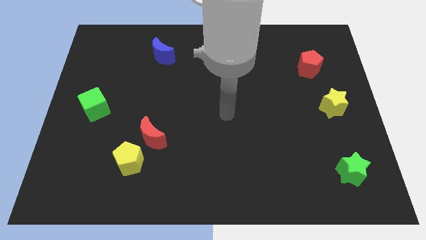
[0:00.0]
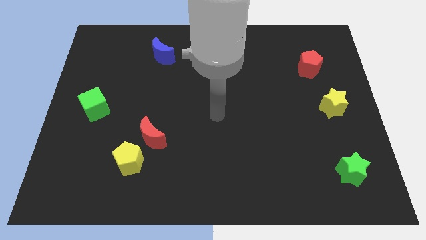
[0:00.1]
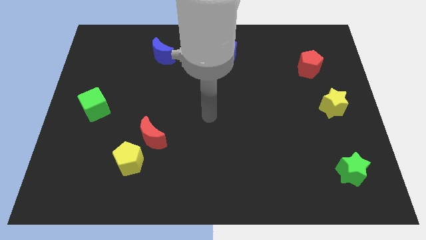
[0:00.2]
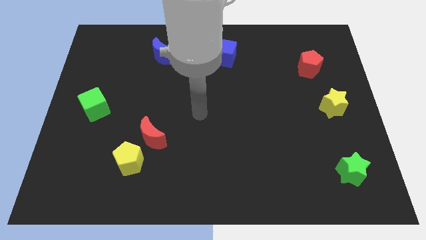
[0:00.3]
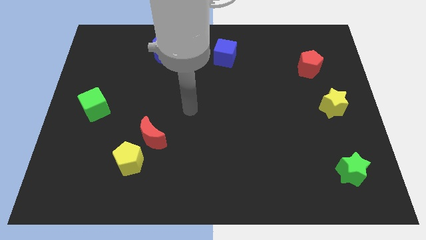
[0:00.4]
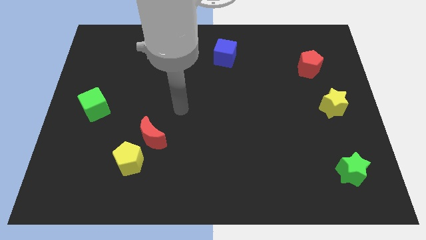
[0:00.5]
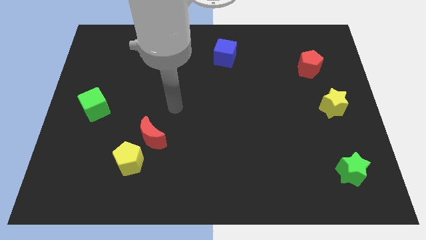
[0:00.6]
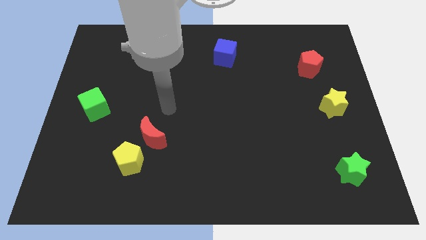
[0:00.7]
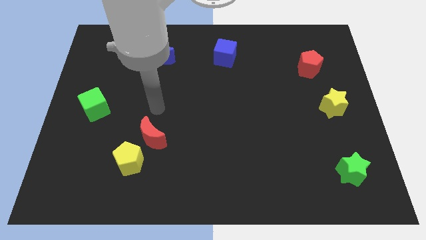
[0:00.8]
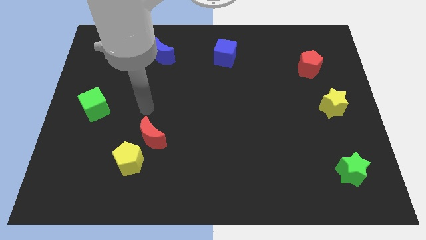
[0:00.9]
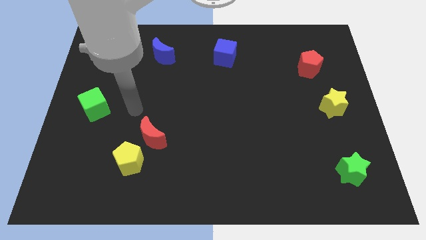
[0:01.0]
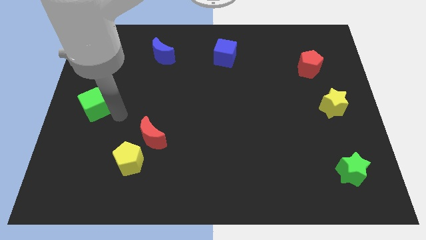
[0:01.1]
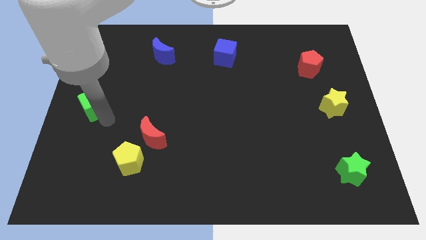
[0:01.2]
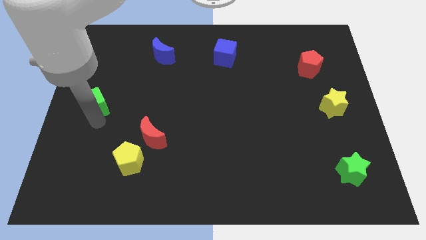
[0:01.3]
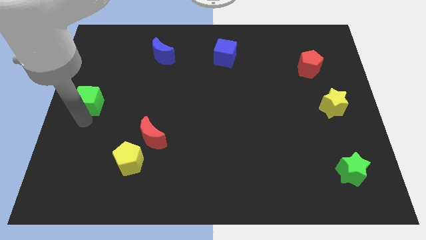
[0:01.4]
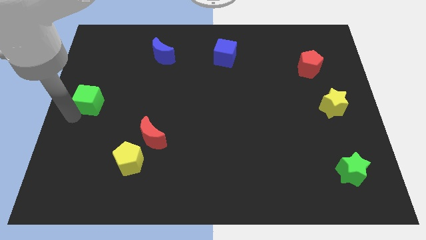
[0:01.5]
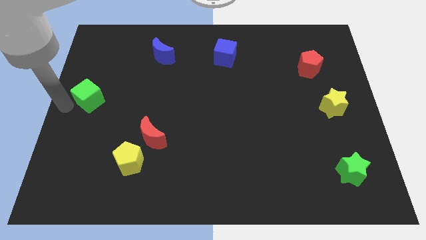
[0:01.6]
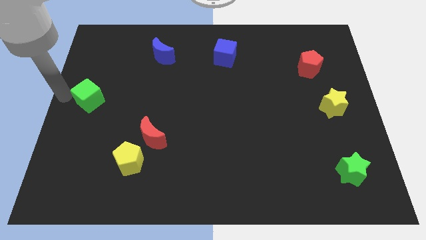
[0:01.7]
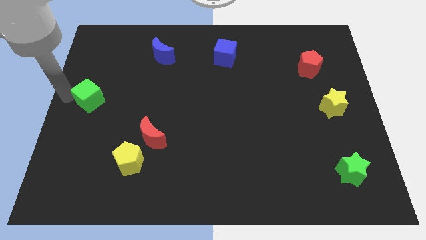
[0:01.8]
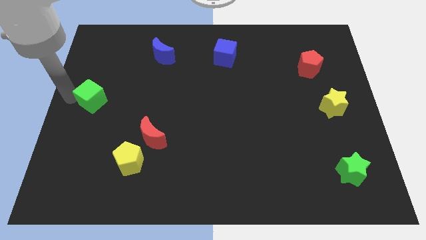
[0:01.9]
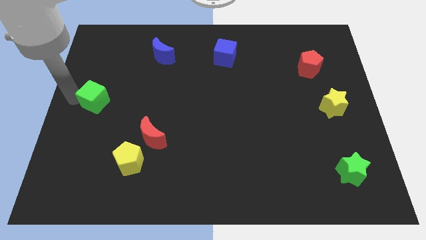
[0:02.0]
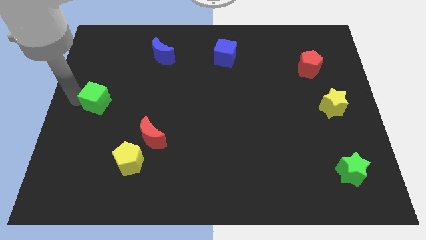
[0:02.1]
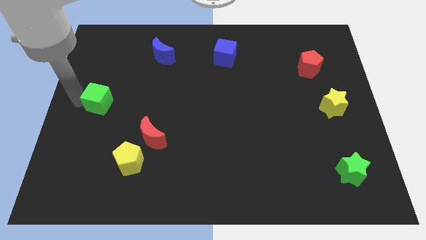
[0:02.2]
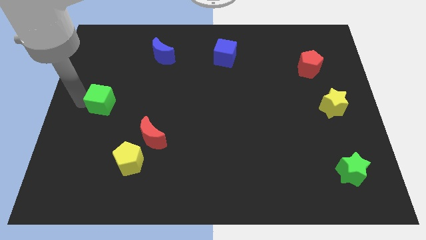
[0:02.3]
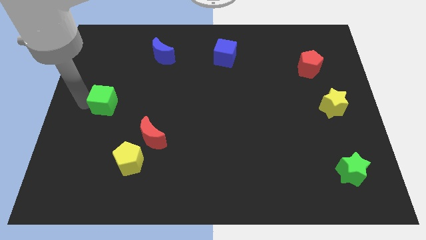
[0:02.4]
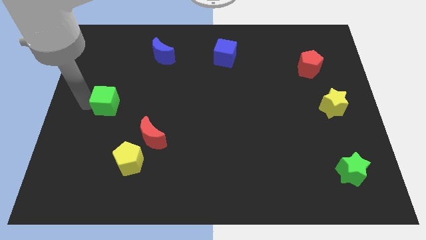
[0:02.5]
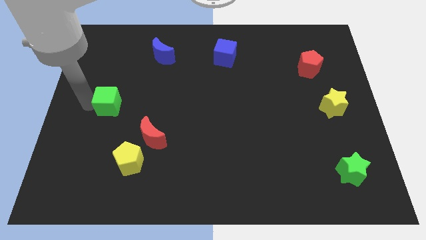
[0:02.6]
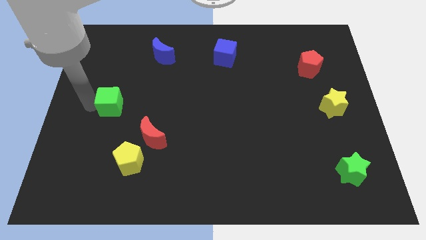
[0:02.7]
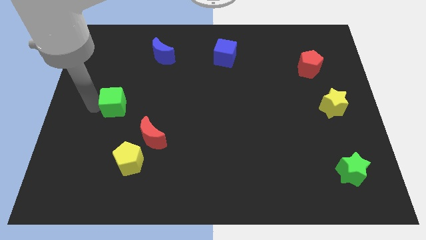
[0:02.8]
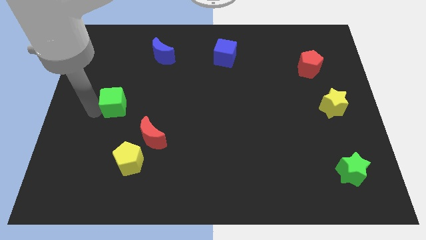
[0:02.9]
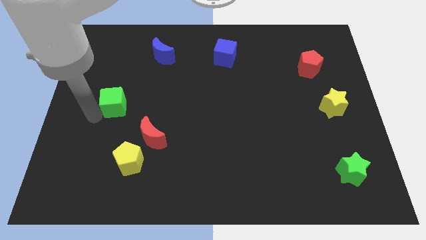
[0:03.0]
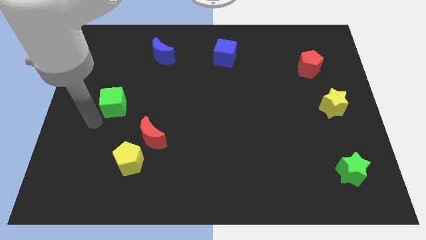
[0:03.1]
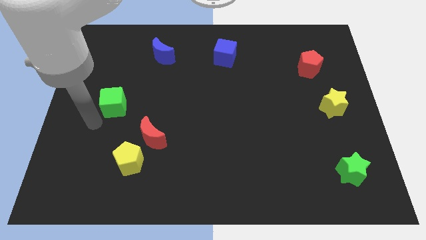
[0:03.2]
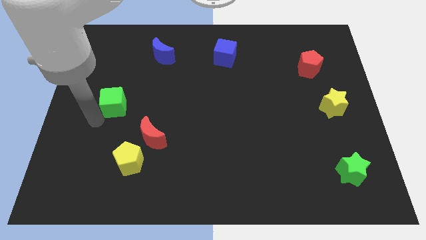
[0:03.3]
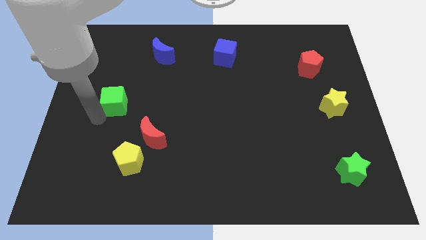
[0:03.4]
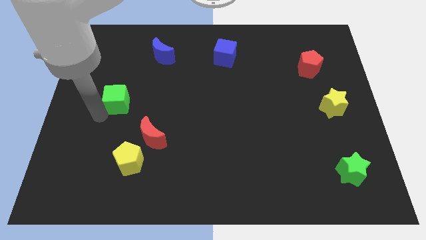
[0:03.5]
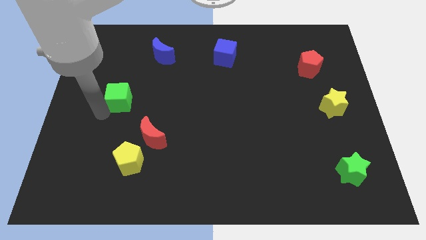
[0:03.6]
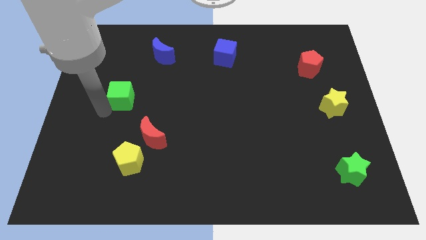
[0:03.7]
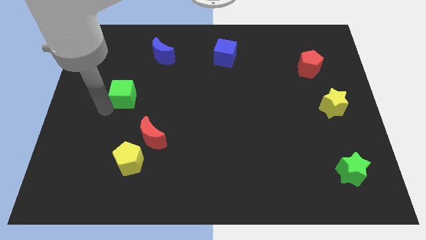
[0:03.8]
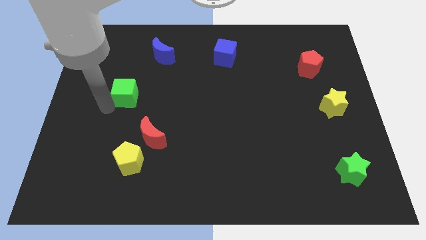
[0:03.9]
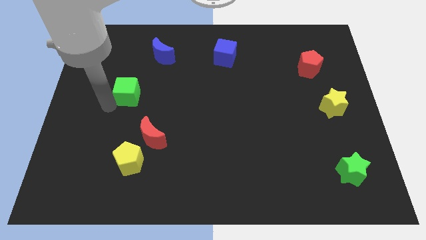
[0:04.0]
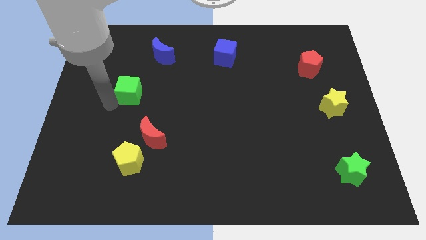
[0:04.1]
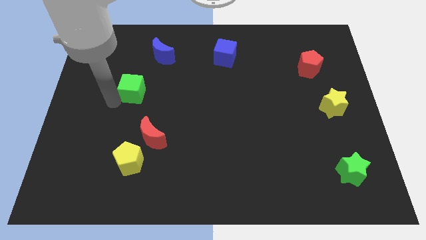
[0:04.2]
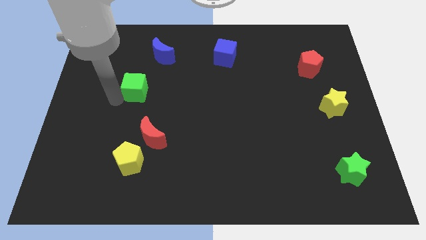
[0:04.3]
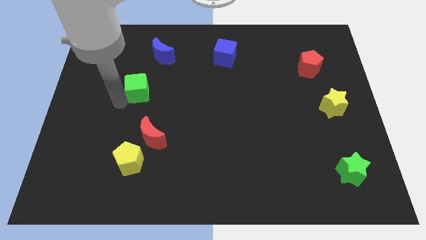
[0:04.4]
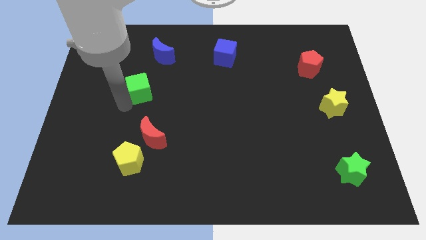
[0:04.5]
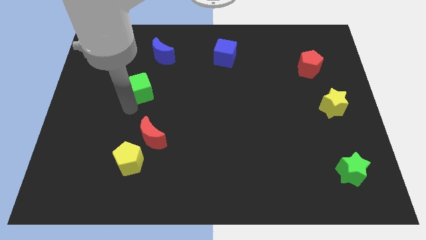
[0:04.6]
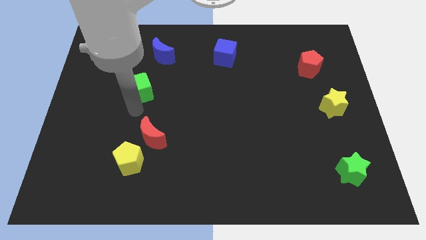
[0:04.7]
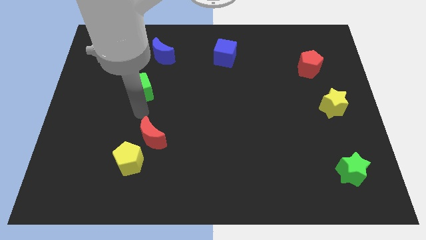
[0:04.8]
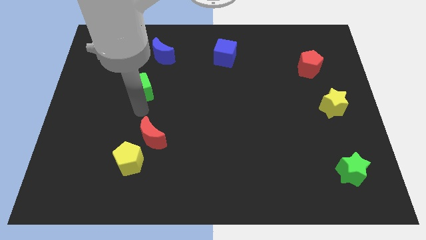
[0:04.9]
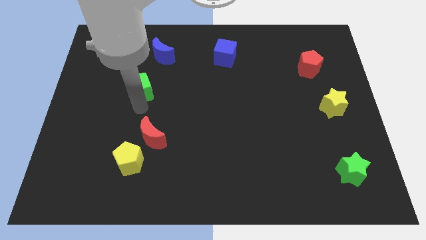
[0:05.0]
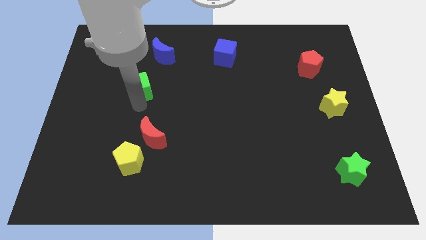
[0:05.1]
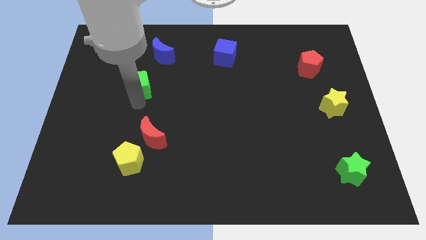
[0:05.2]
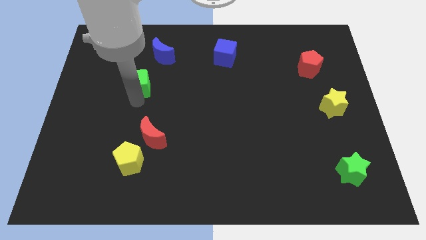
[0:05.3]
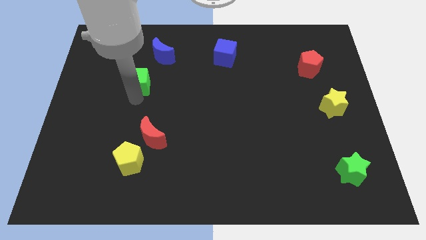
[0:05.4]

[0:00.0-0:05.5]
move the green cube to the bottom left side of the blue moon

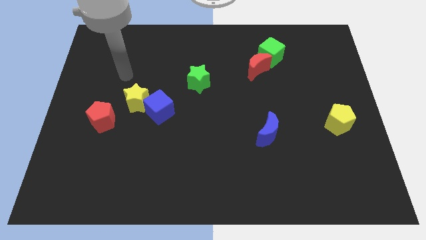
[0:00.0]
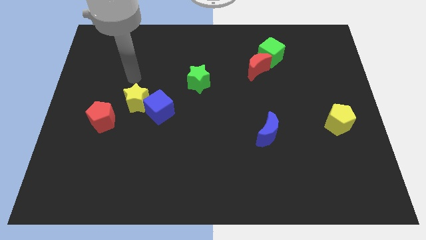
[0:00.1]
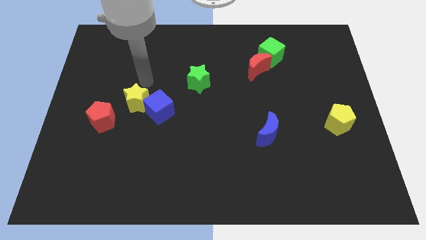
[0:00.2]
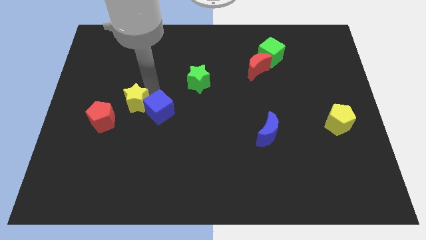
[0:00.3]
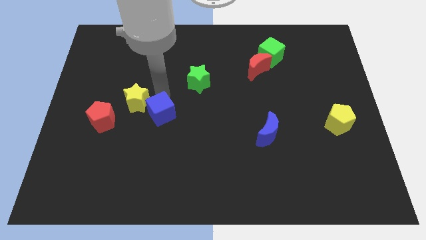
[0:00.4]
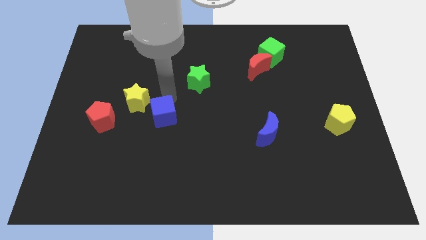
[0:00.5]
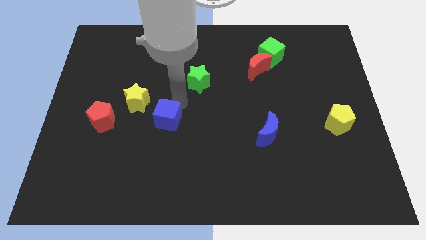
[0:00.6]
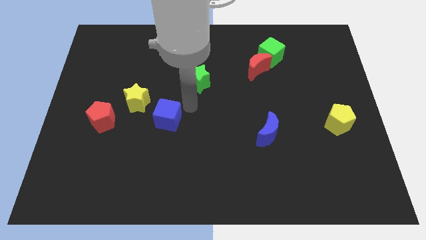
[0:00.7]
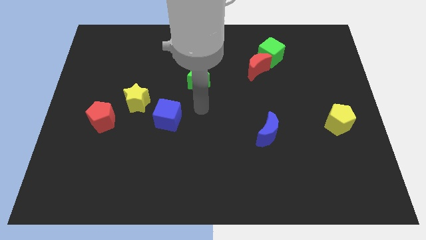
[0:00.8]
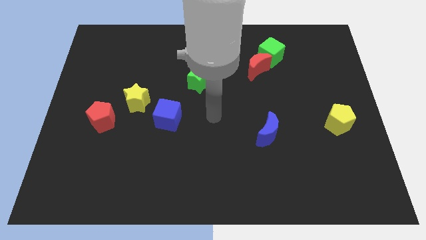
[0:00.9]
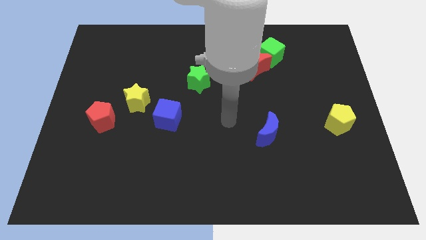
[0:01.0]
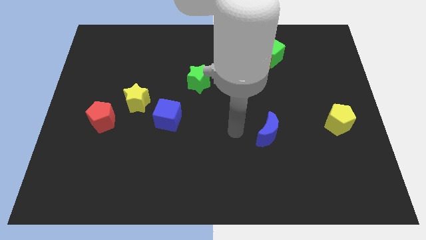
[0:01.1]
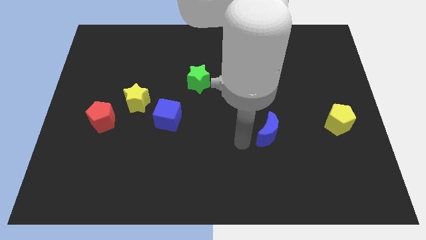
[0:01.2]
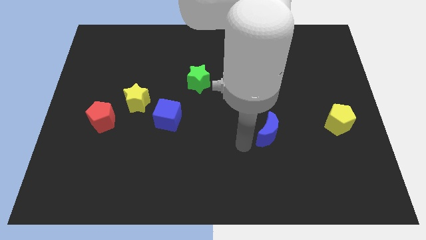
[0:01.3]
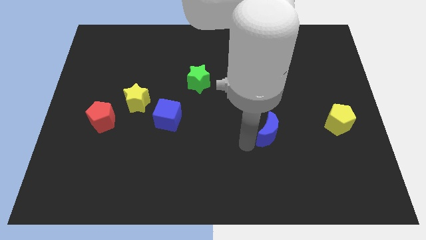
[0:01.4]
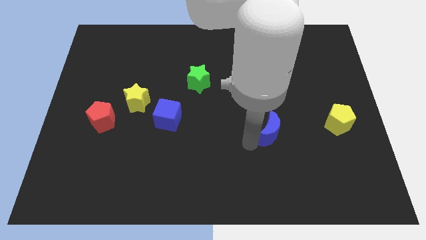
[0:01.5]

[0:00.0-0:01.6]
put the blue moon left of the yellow pentagon

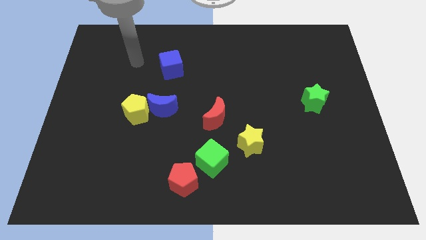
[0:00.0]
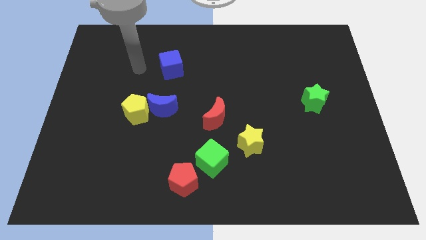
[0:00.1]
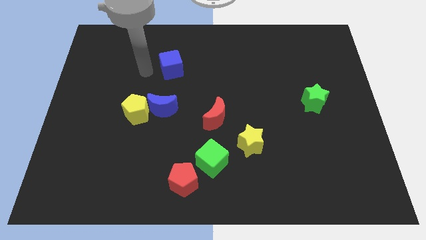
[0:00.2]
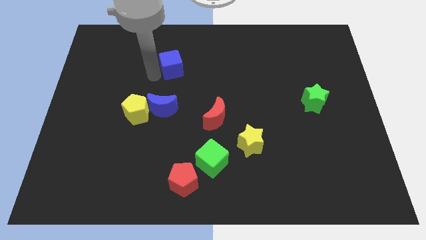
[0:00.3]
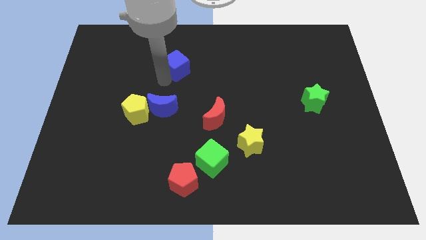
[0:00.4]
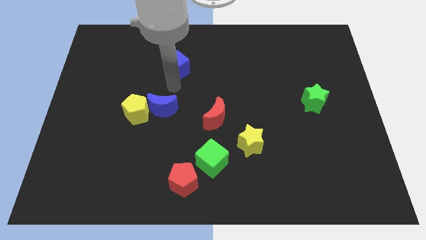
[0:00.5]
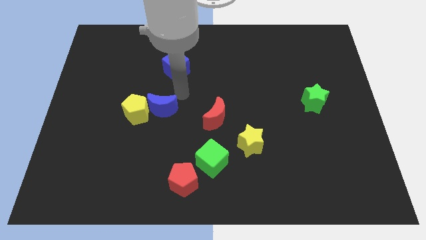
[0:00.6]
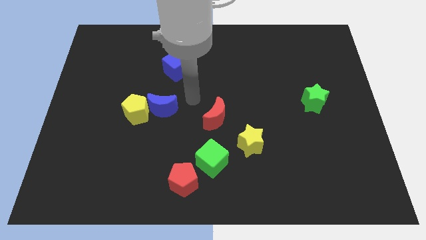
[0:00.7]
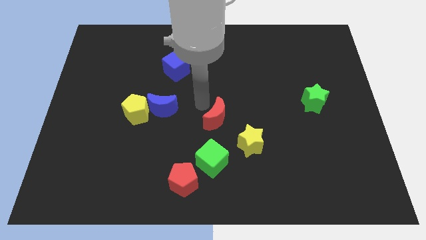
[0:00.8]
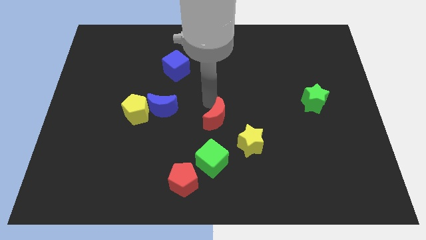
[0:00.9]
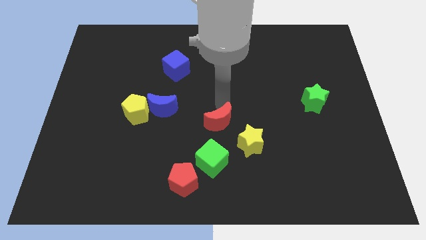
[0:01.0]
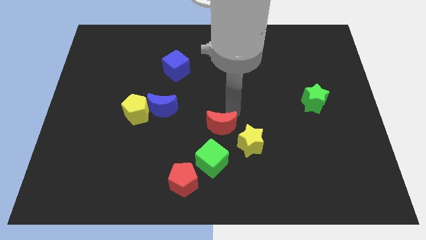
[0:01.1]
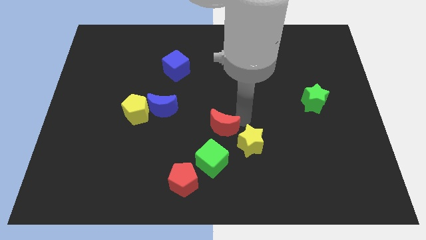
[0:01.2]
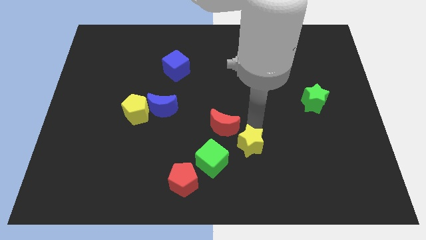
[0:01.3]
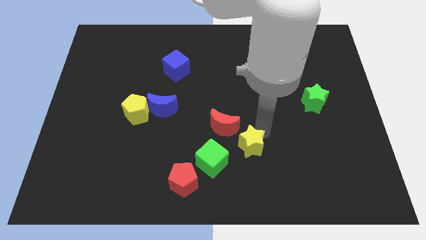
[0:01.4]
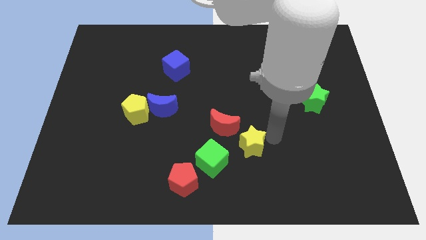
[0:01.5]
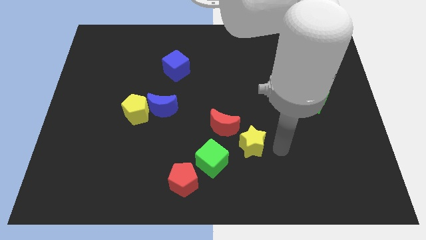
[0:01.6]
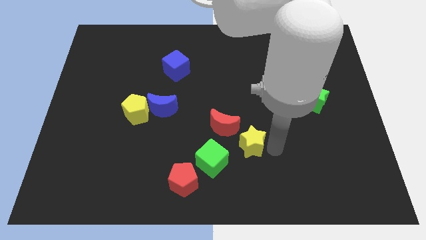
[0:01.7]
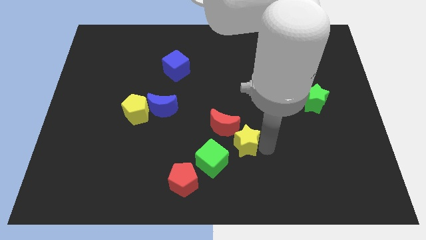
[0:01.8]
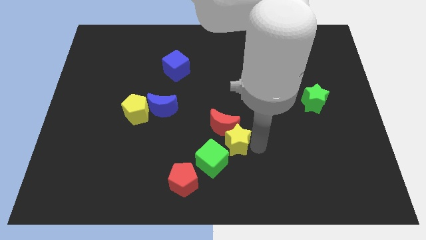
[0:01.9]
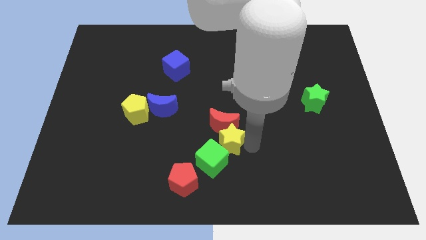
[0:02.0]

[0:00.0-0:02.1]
slide the yellow star diagonally down and to the left of the red moon
